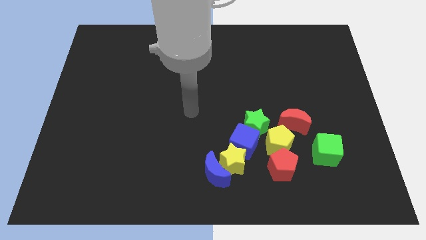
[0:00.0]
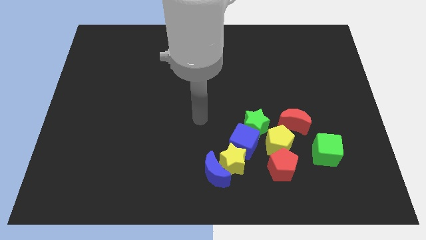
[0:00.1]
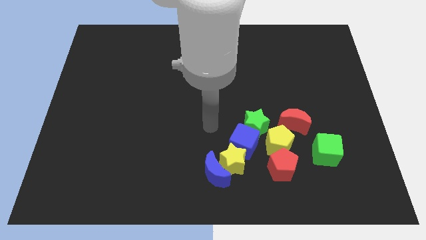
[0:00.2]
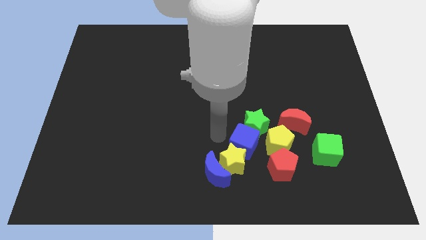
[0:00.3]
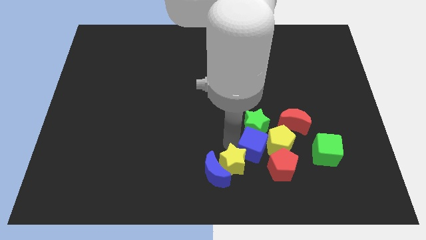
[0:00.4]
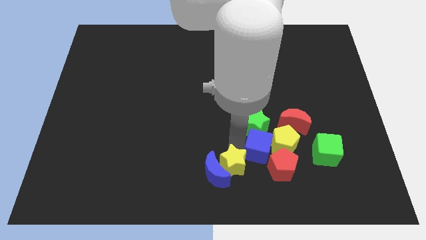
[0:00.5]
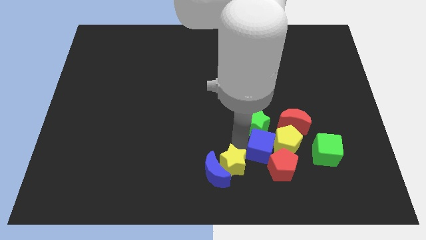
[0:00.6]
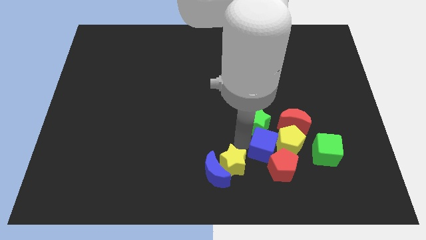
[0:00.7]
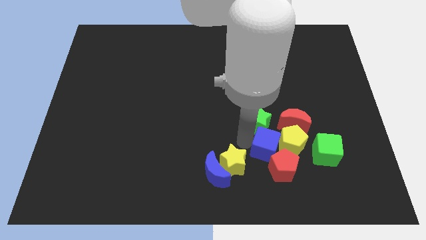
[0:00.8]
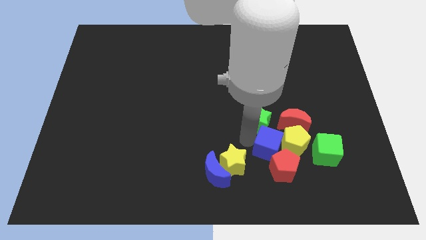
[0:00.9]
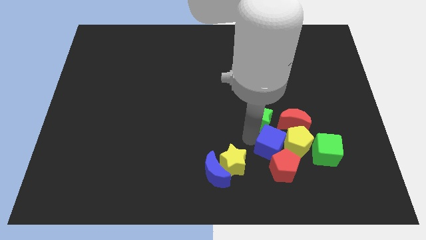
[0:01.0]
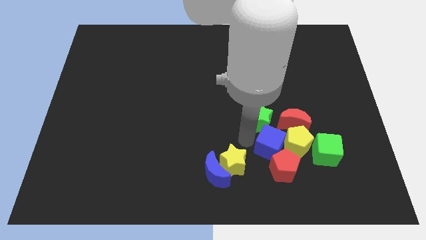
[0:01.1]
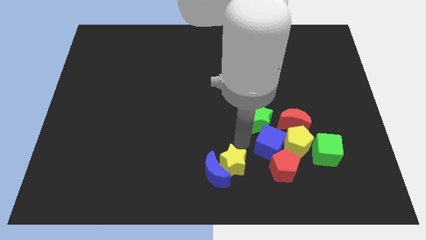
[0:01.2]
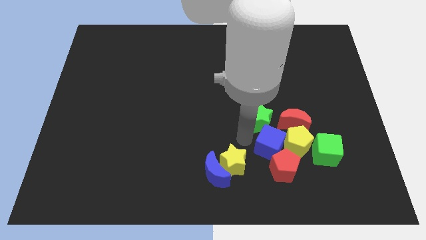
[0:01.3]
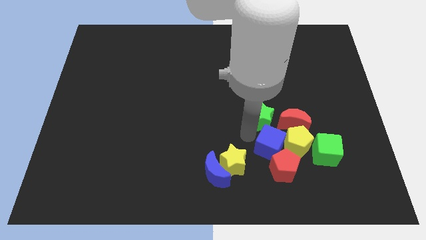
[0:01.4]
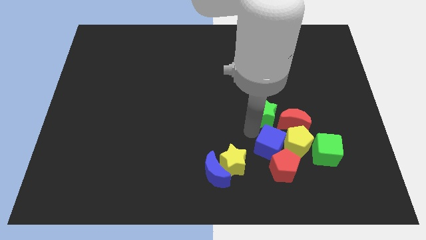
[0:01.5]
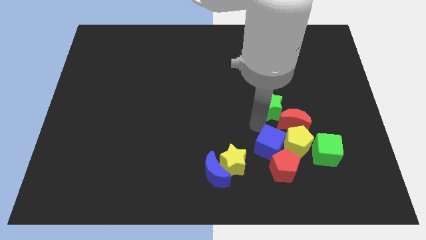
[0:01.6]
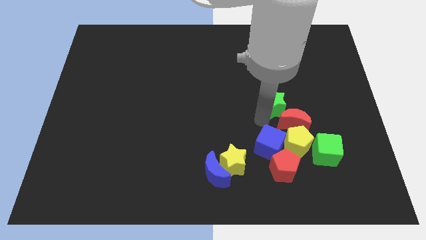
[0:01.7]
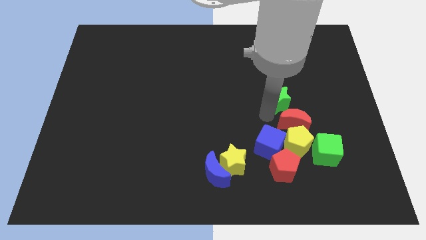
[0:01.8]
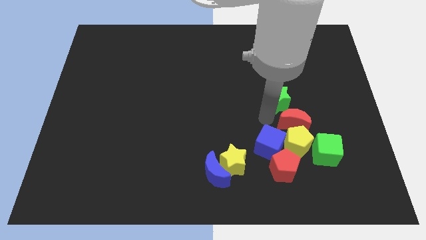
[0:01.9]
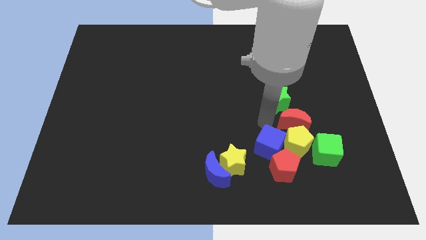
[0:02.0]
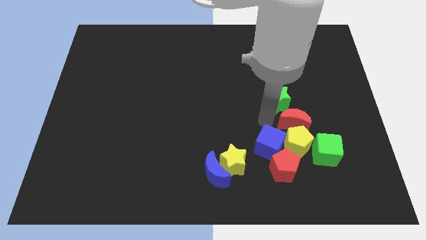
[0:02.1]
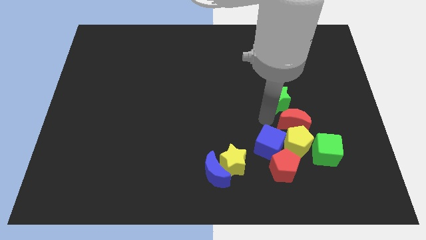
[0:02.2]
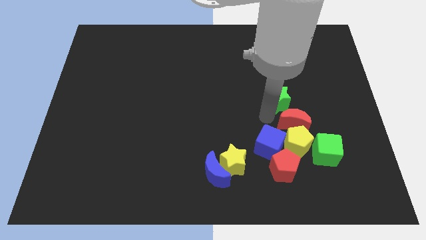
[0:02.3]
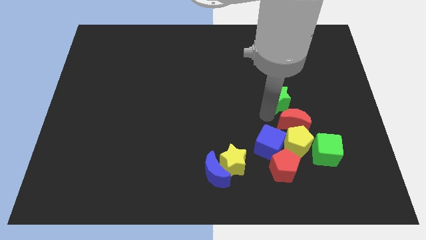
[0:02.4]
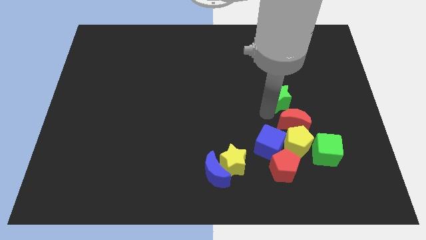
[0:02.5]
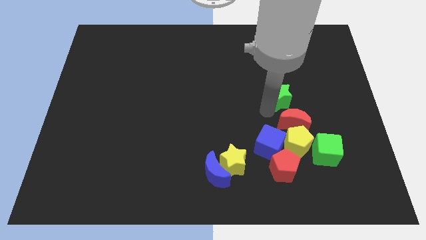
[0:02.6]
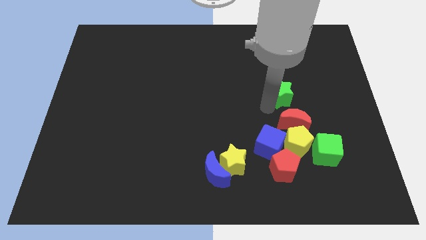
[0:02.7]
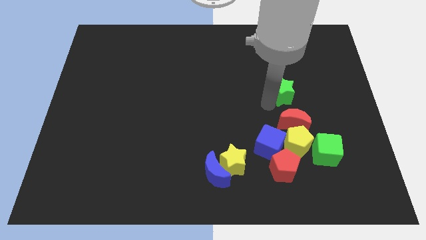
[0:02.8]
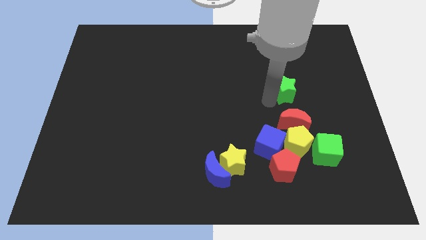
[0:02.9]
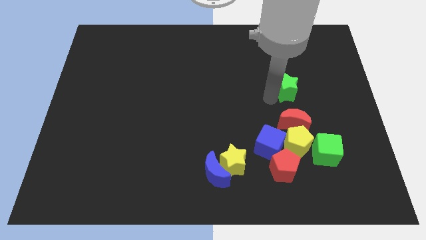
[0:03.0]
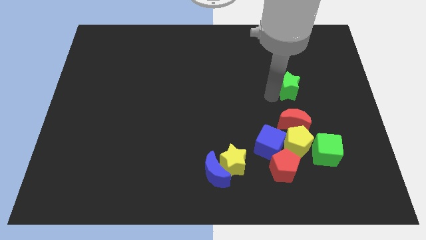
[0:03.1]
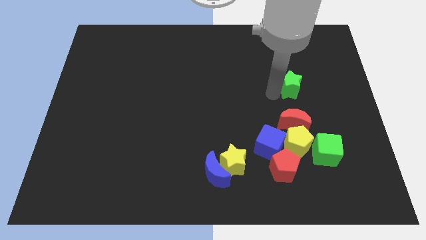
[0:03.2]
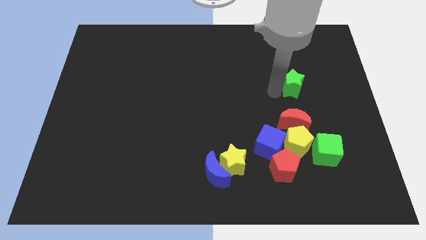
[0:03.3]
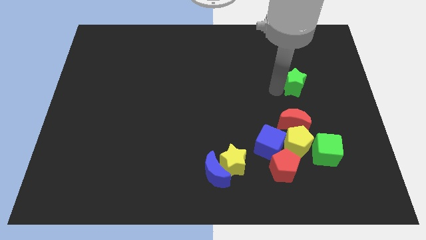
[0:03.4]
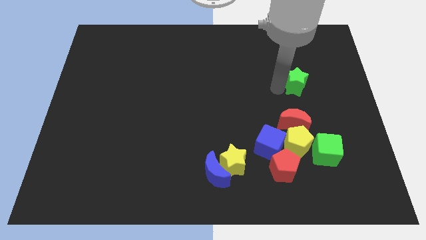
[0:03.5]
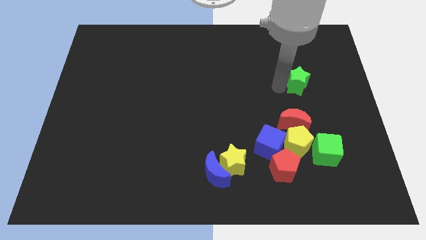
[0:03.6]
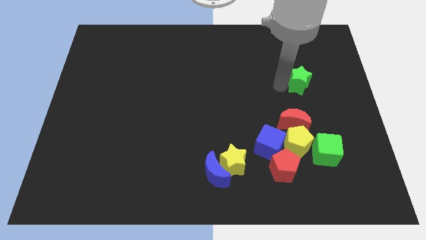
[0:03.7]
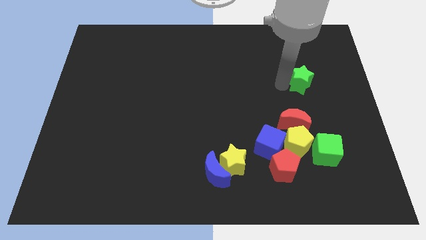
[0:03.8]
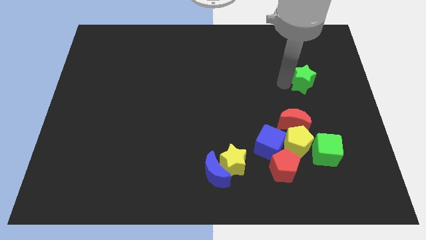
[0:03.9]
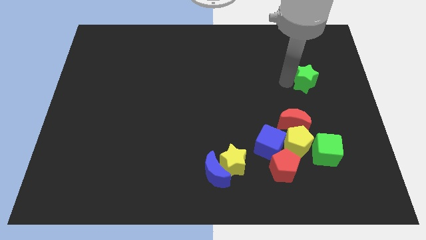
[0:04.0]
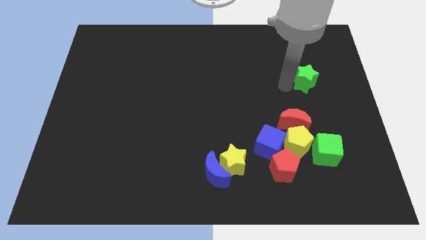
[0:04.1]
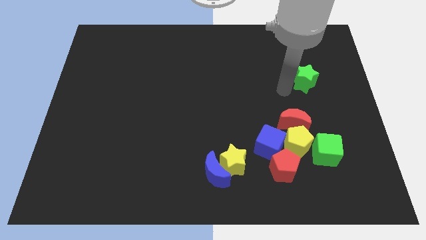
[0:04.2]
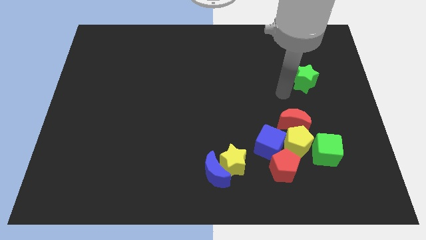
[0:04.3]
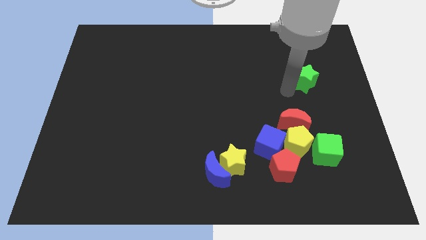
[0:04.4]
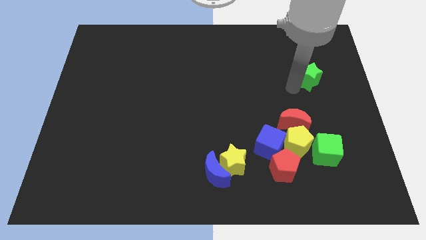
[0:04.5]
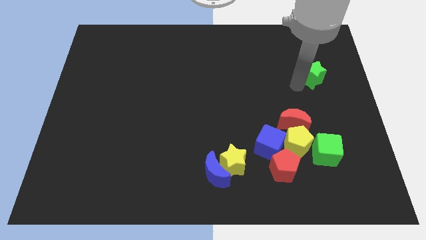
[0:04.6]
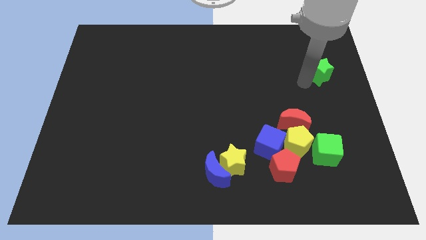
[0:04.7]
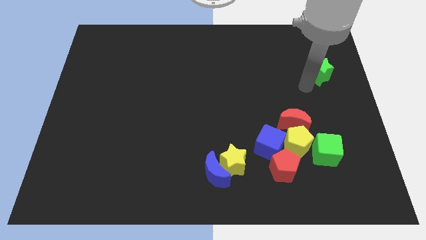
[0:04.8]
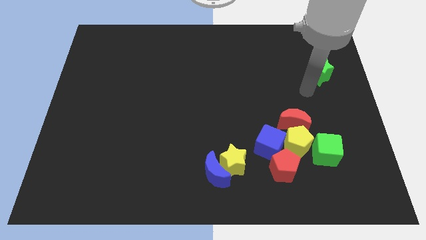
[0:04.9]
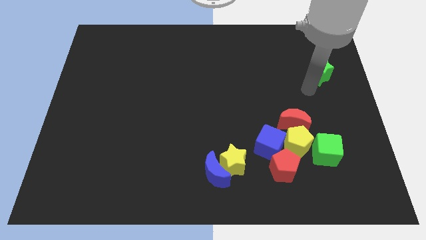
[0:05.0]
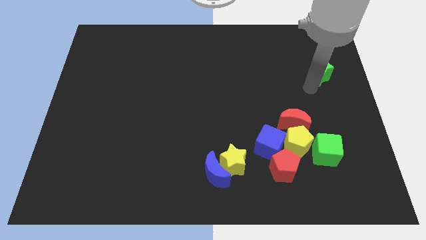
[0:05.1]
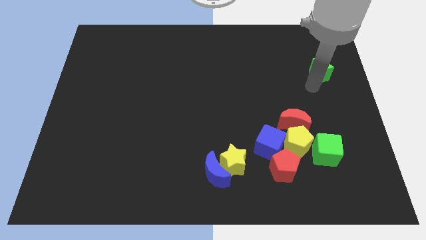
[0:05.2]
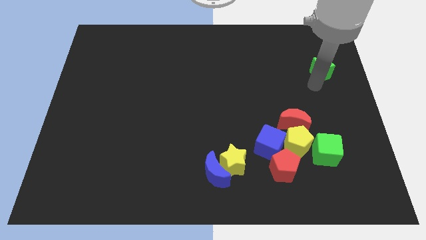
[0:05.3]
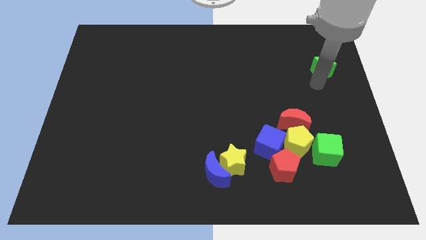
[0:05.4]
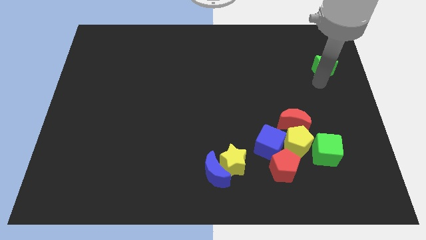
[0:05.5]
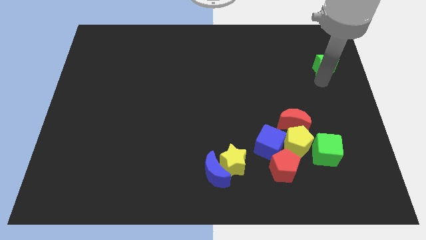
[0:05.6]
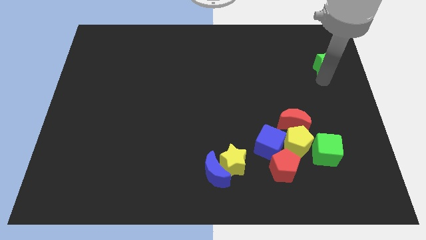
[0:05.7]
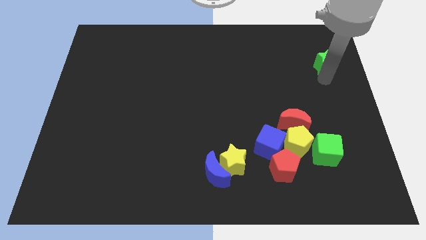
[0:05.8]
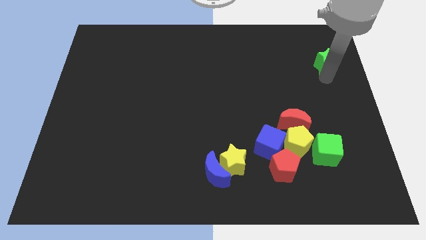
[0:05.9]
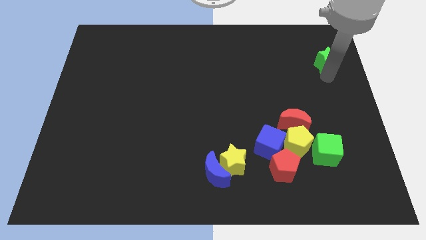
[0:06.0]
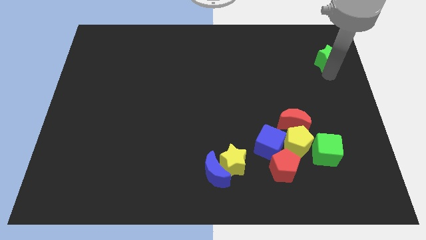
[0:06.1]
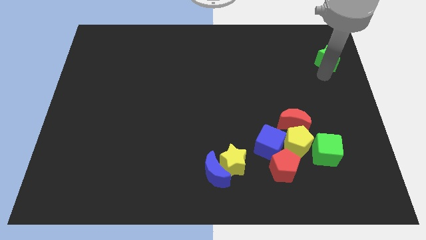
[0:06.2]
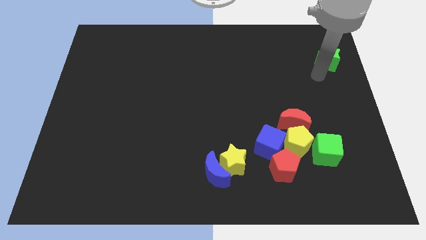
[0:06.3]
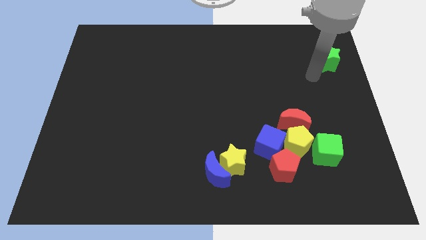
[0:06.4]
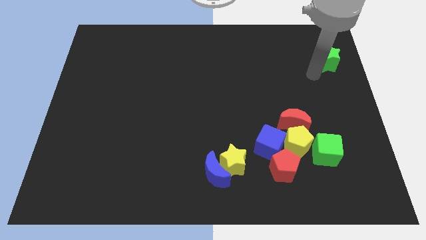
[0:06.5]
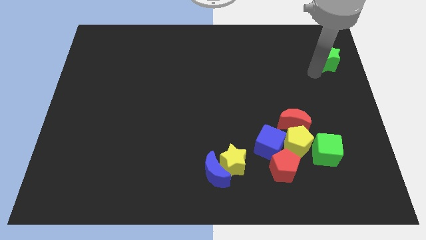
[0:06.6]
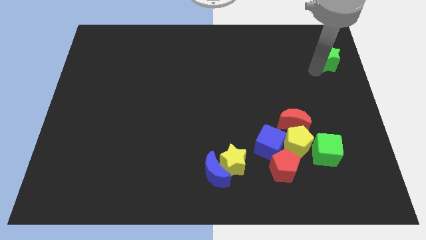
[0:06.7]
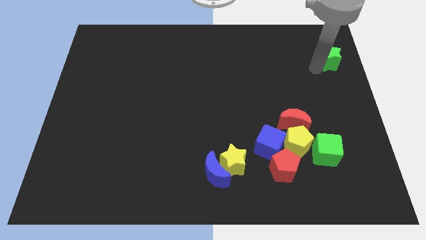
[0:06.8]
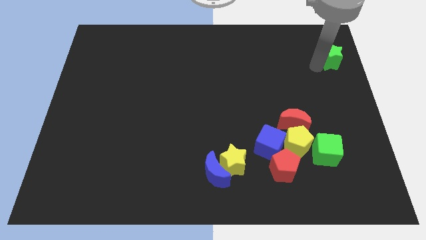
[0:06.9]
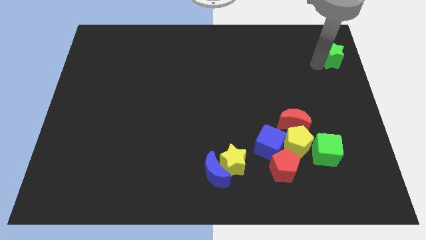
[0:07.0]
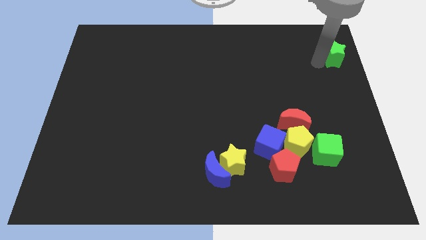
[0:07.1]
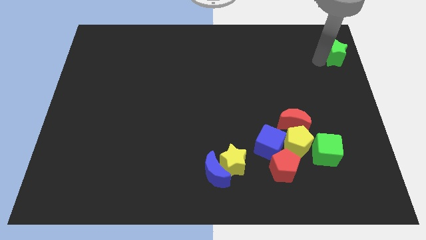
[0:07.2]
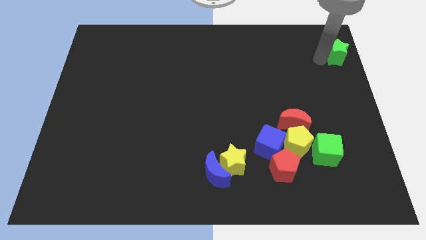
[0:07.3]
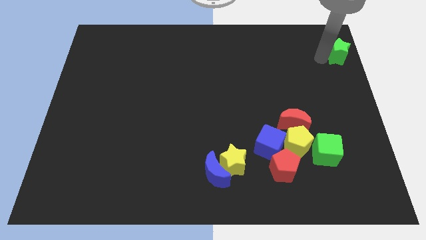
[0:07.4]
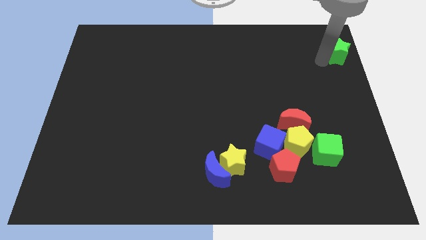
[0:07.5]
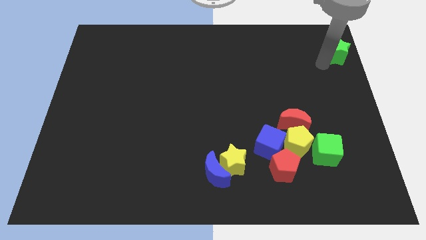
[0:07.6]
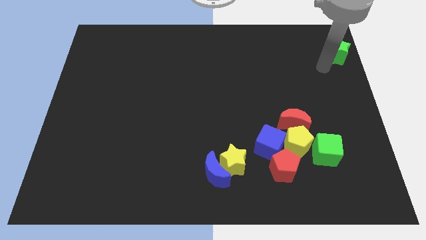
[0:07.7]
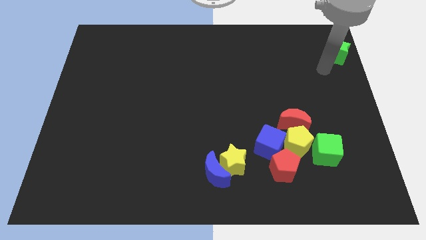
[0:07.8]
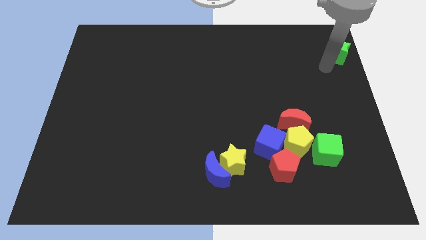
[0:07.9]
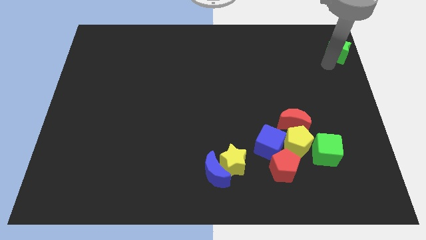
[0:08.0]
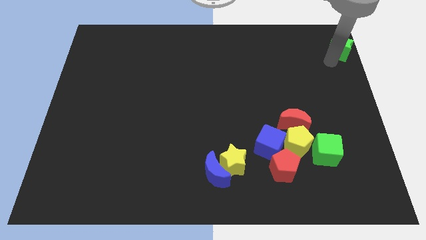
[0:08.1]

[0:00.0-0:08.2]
move the green star to the top right corner
